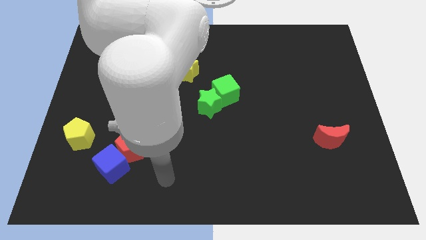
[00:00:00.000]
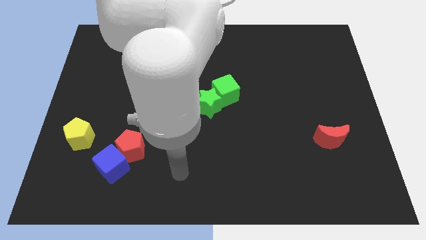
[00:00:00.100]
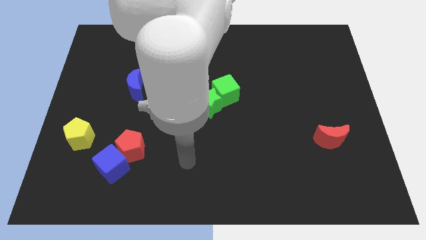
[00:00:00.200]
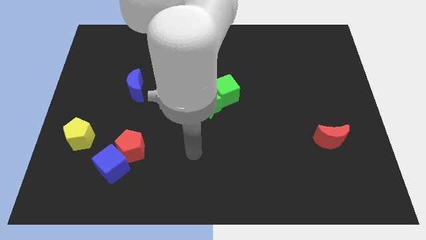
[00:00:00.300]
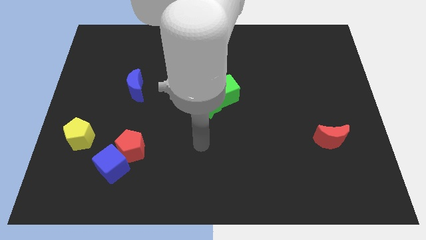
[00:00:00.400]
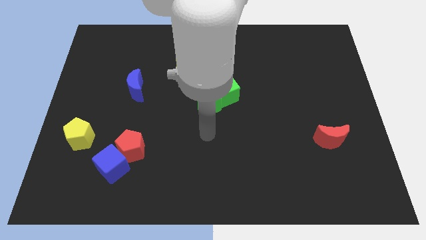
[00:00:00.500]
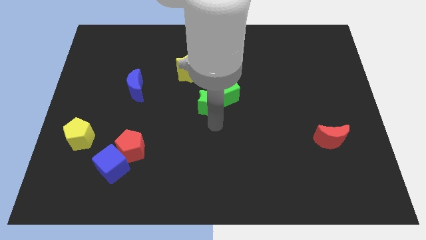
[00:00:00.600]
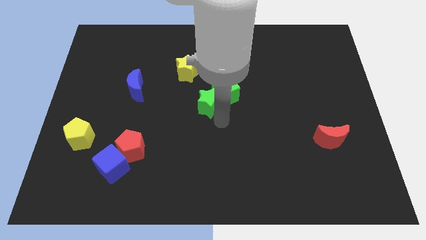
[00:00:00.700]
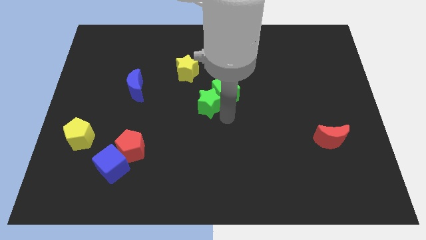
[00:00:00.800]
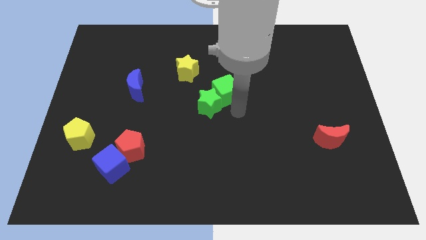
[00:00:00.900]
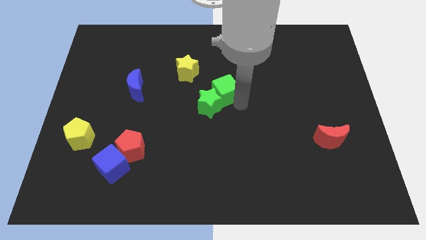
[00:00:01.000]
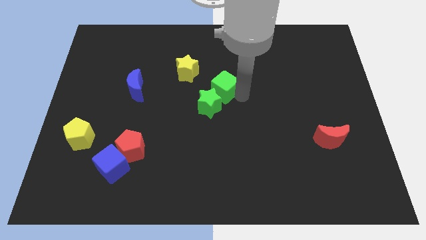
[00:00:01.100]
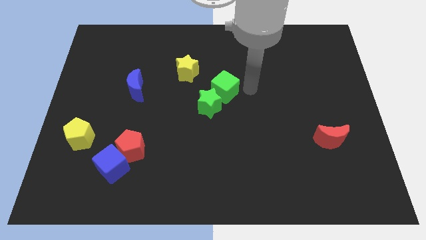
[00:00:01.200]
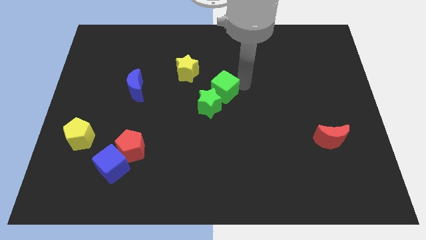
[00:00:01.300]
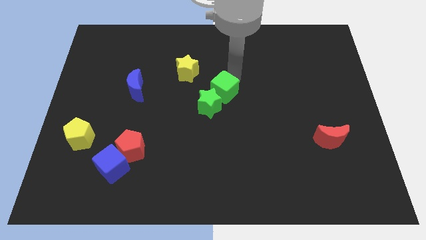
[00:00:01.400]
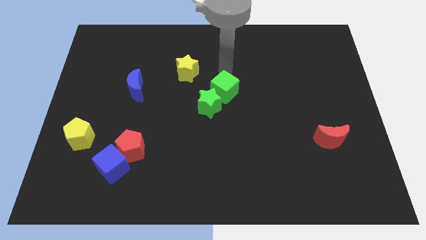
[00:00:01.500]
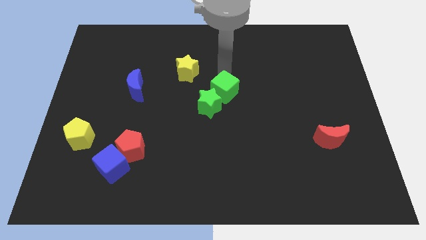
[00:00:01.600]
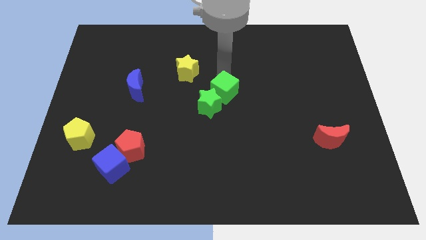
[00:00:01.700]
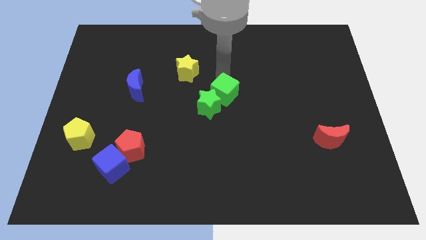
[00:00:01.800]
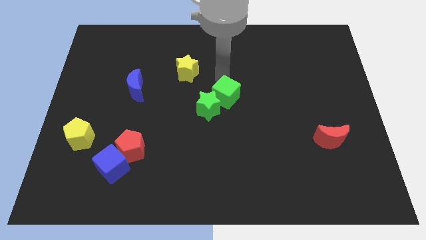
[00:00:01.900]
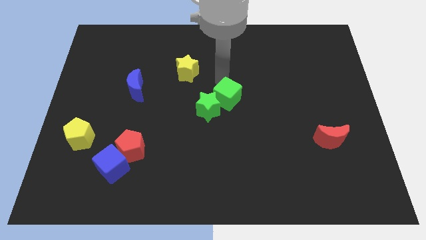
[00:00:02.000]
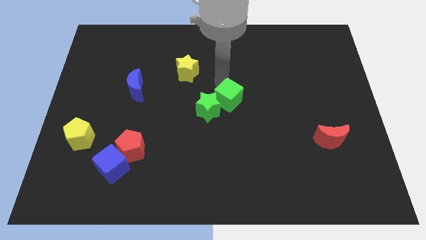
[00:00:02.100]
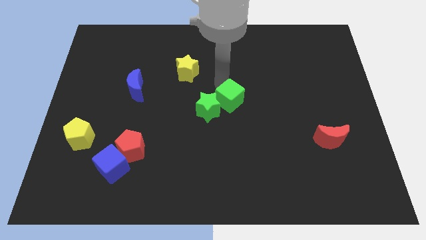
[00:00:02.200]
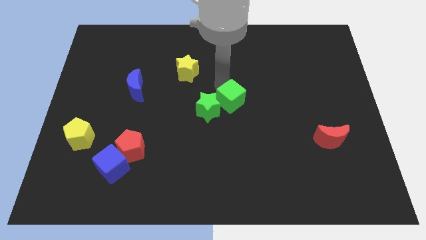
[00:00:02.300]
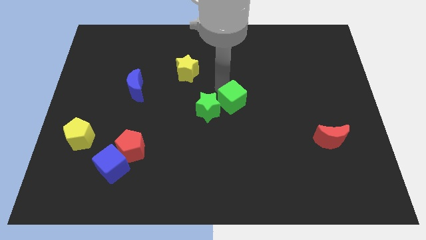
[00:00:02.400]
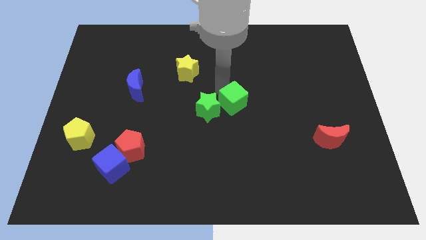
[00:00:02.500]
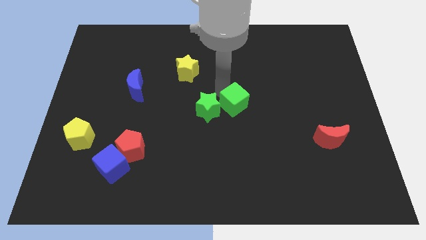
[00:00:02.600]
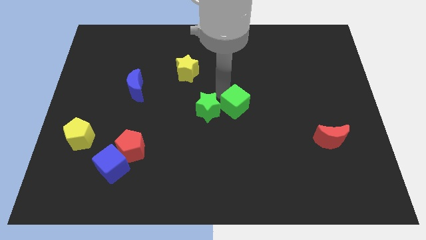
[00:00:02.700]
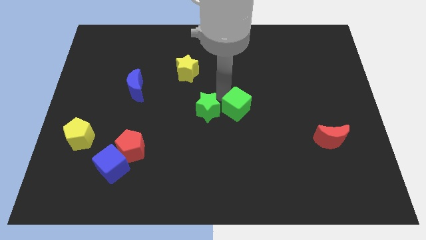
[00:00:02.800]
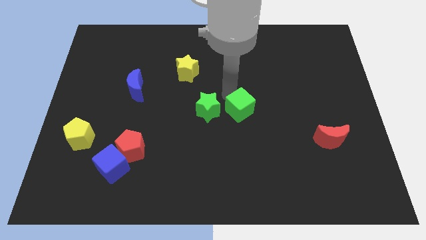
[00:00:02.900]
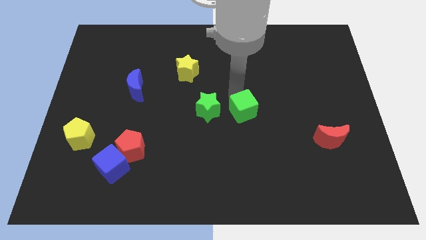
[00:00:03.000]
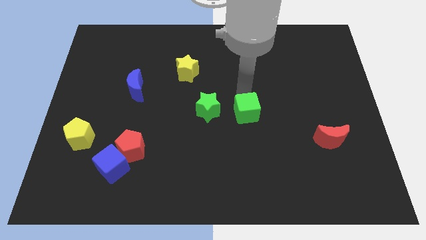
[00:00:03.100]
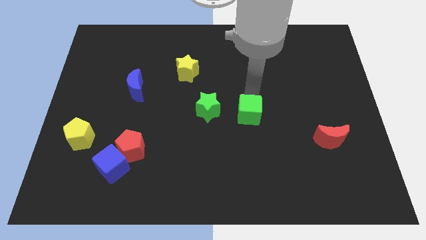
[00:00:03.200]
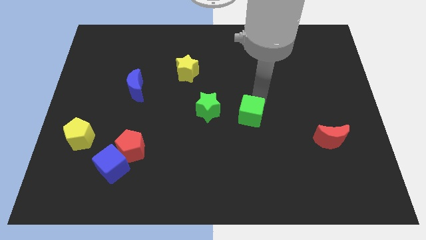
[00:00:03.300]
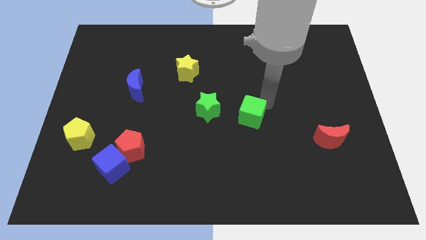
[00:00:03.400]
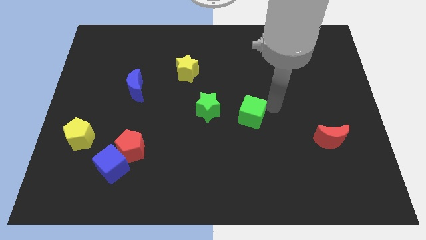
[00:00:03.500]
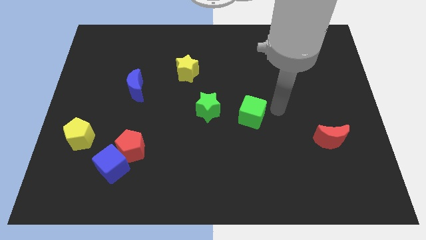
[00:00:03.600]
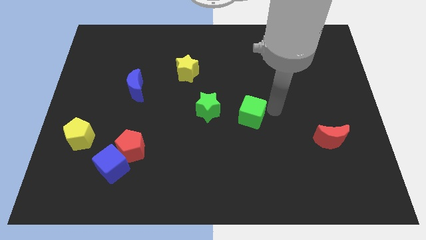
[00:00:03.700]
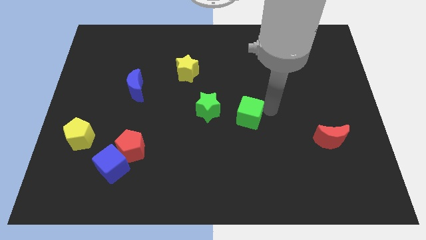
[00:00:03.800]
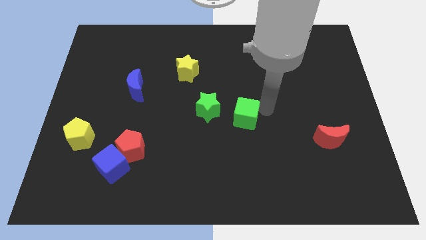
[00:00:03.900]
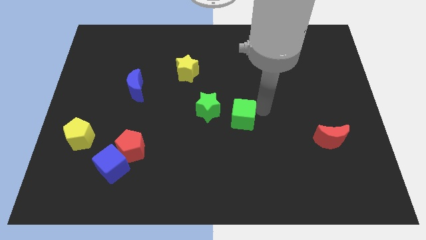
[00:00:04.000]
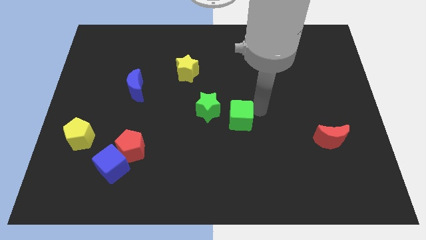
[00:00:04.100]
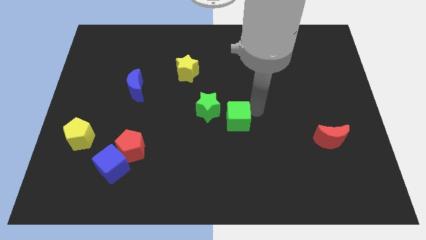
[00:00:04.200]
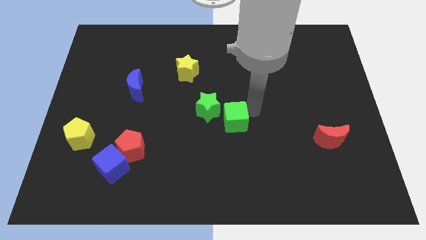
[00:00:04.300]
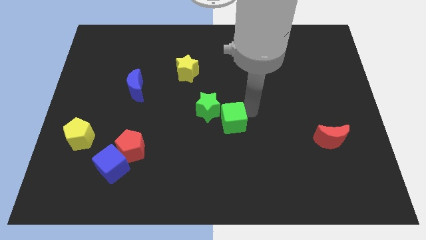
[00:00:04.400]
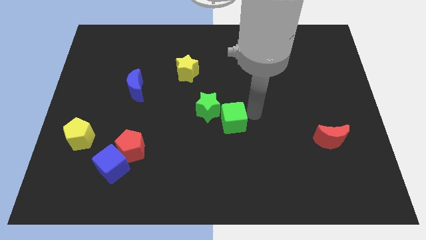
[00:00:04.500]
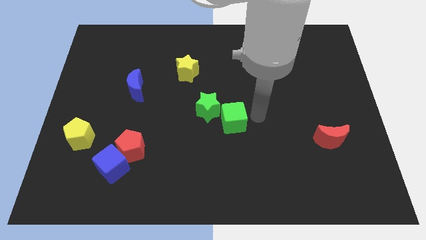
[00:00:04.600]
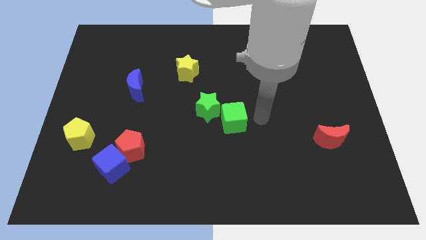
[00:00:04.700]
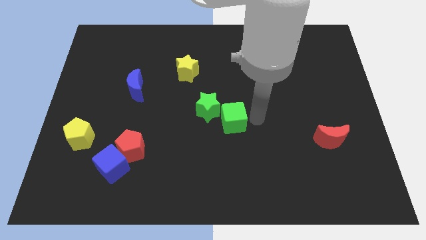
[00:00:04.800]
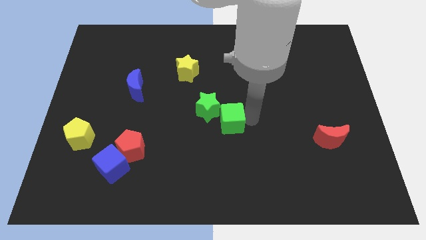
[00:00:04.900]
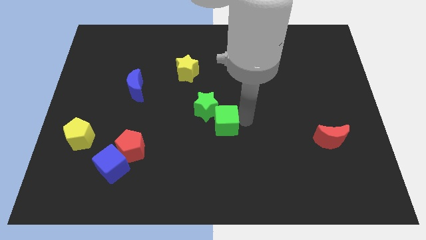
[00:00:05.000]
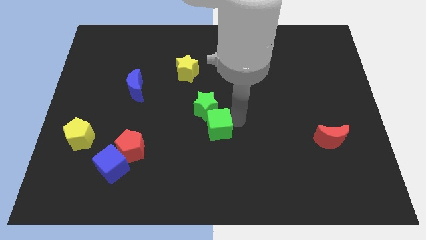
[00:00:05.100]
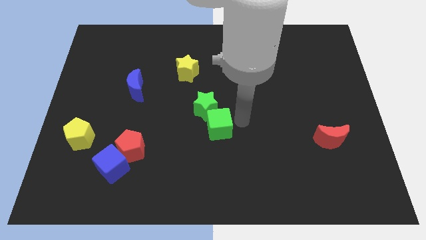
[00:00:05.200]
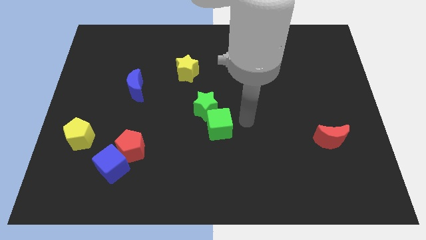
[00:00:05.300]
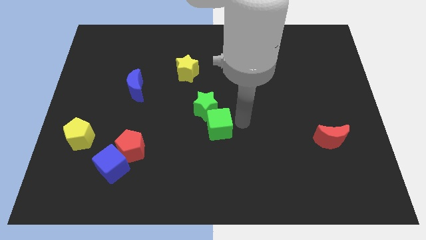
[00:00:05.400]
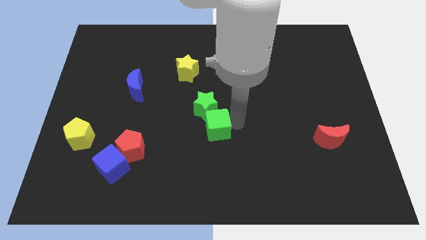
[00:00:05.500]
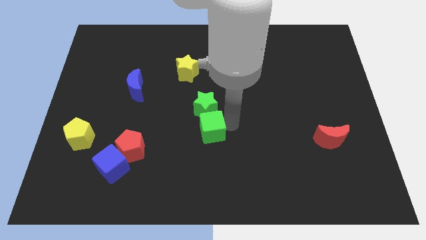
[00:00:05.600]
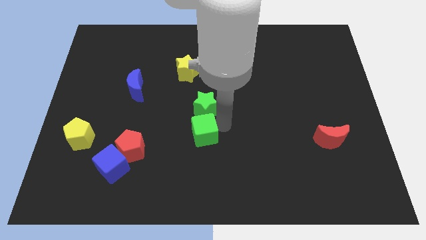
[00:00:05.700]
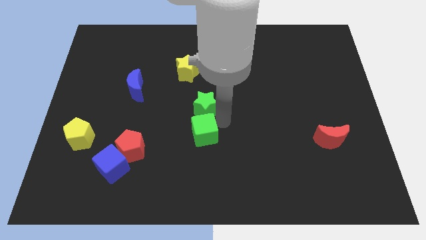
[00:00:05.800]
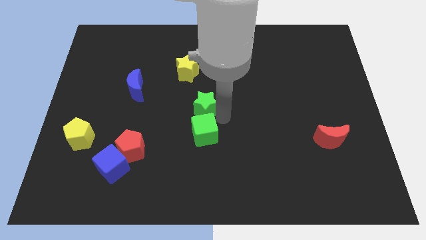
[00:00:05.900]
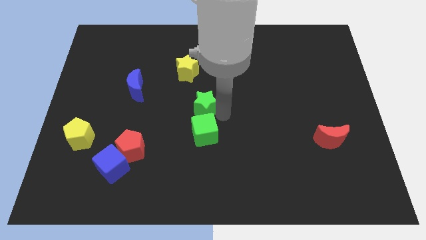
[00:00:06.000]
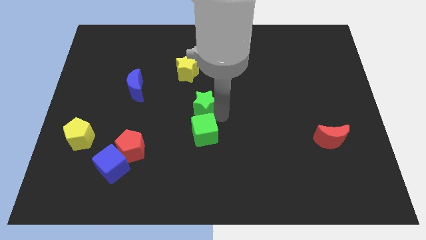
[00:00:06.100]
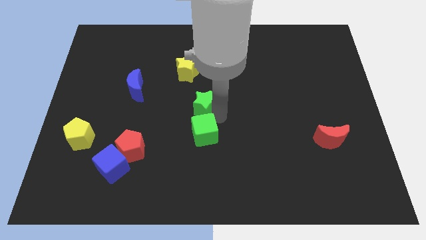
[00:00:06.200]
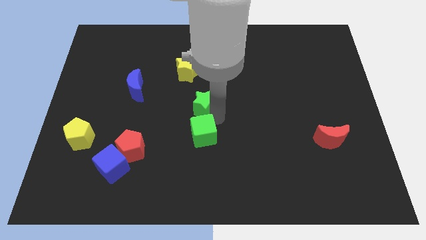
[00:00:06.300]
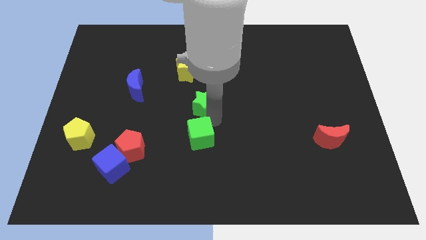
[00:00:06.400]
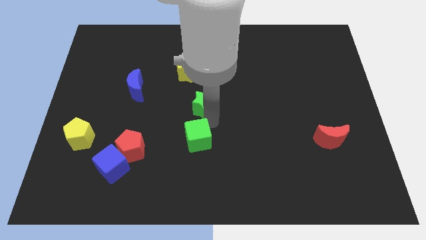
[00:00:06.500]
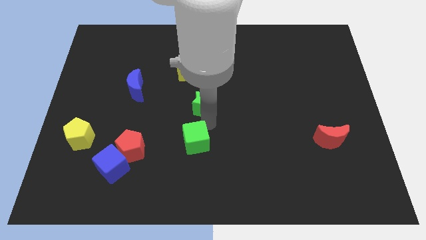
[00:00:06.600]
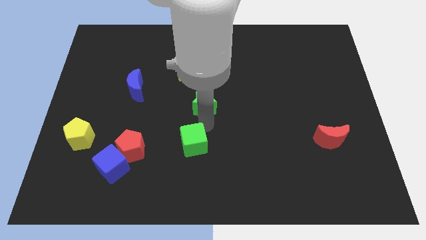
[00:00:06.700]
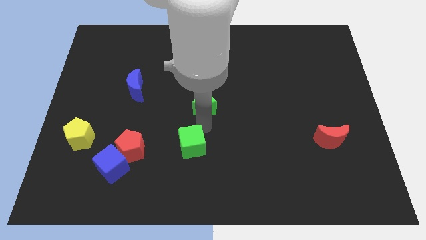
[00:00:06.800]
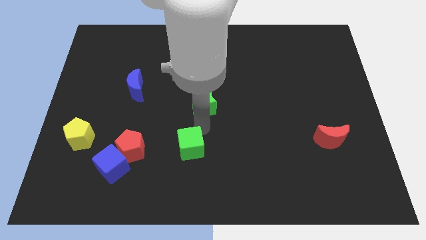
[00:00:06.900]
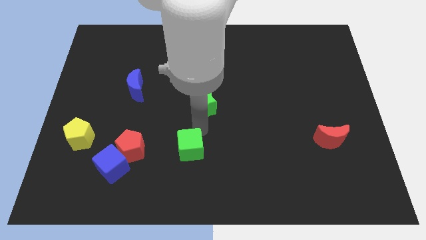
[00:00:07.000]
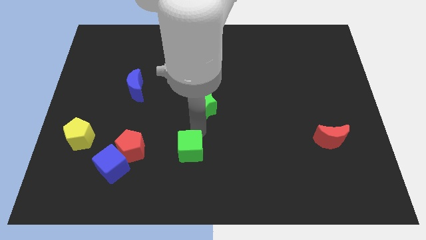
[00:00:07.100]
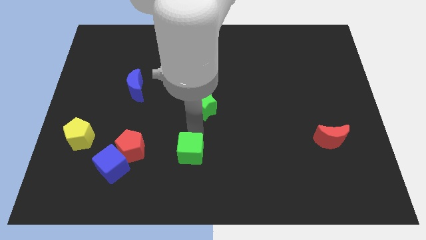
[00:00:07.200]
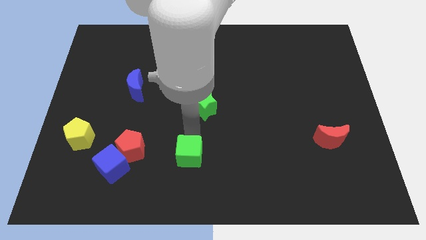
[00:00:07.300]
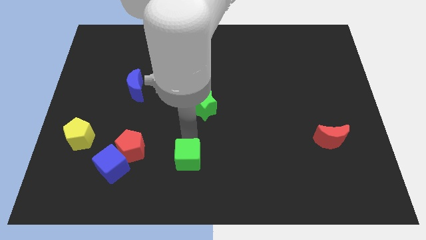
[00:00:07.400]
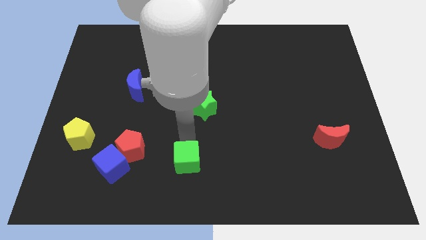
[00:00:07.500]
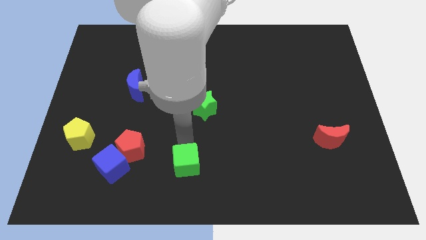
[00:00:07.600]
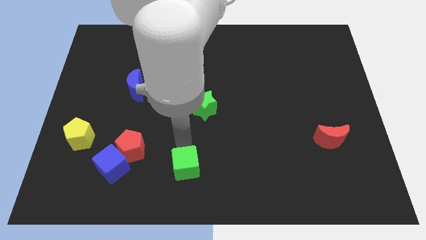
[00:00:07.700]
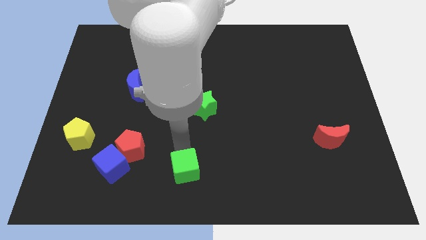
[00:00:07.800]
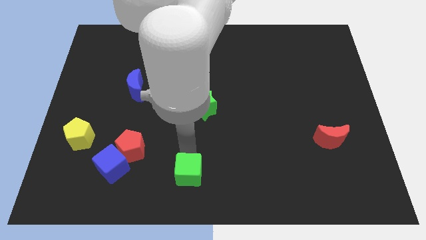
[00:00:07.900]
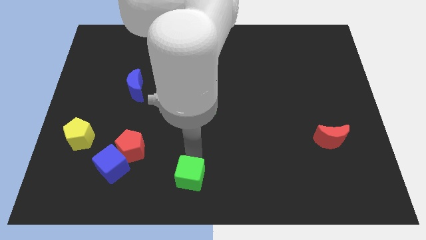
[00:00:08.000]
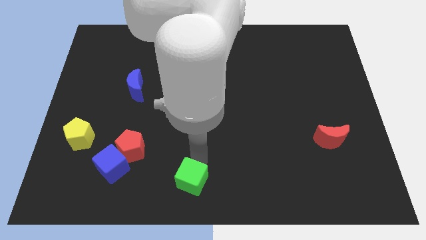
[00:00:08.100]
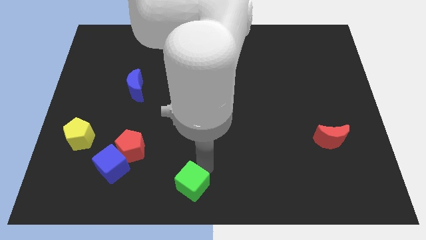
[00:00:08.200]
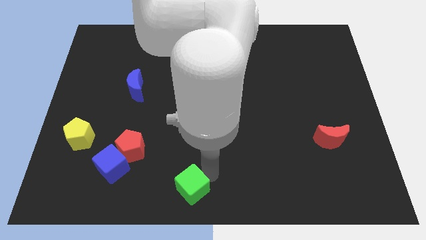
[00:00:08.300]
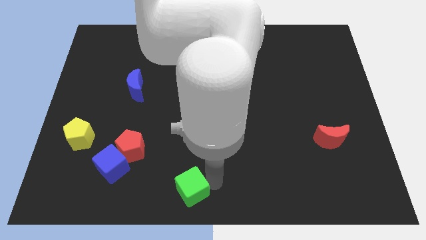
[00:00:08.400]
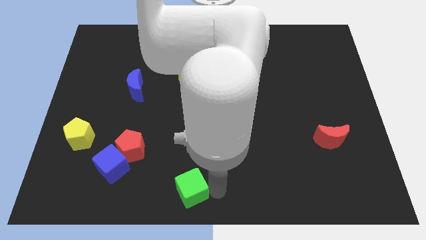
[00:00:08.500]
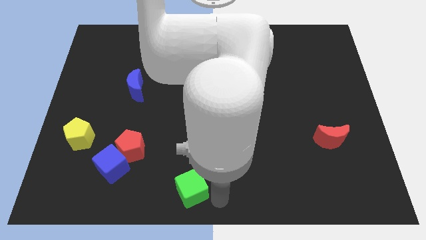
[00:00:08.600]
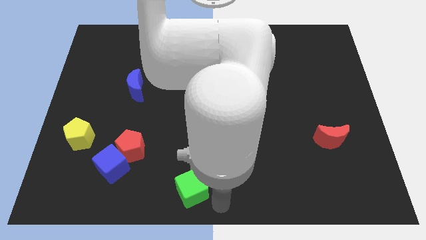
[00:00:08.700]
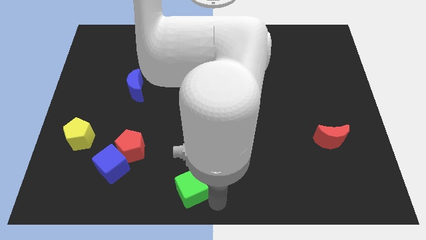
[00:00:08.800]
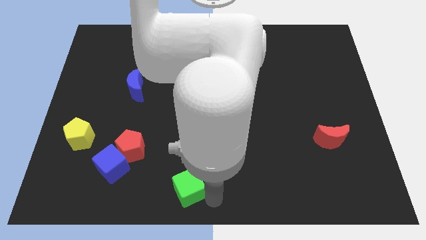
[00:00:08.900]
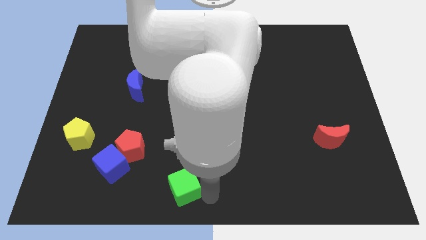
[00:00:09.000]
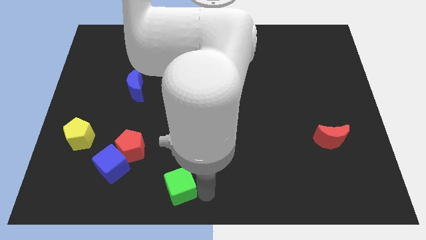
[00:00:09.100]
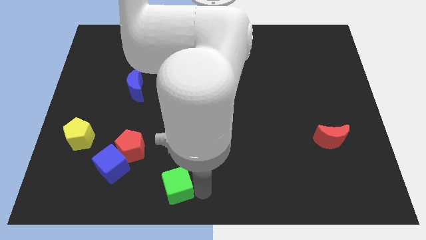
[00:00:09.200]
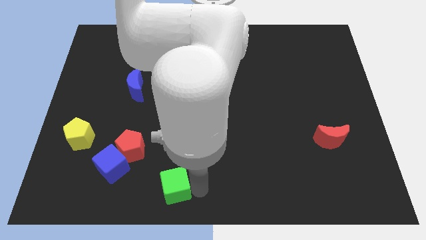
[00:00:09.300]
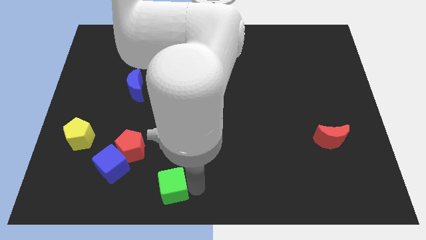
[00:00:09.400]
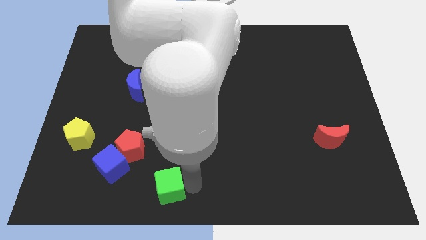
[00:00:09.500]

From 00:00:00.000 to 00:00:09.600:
slide the green cube to the bottom right of the red pentagon
